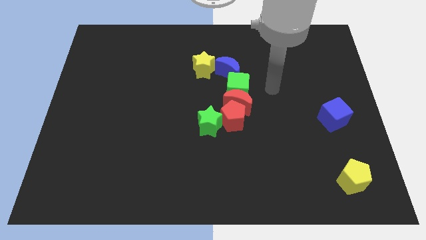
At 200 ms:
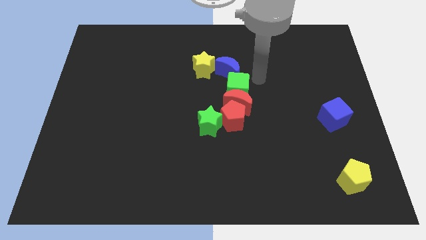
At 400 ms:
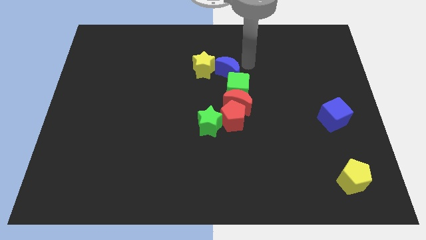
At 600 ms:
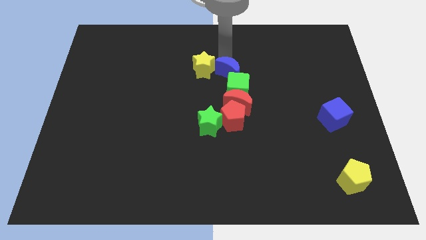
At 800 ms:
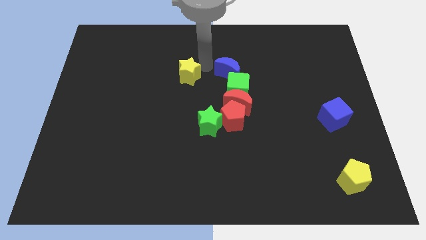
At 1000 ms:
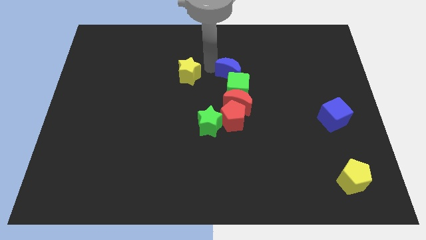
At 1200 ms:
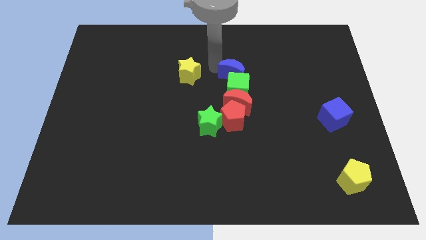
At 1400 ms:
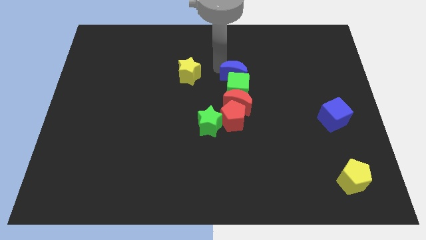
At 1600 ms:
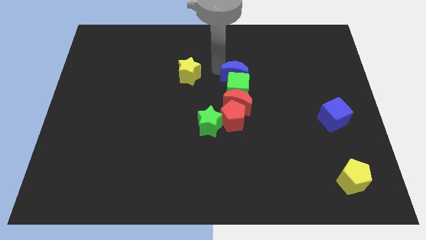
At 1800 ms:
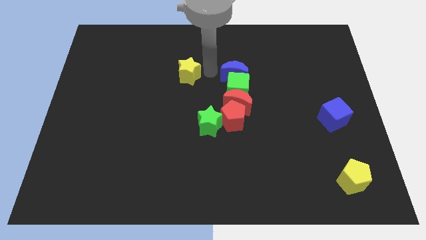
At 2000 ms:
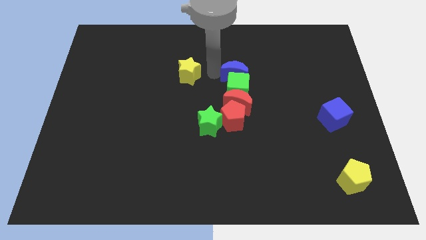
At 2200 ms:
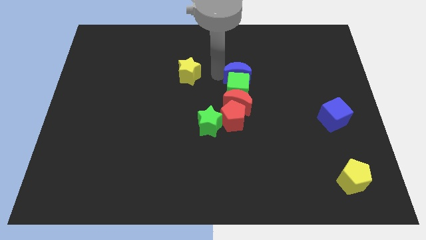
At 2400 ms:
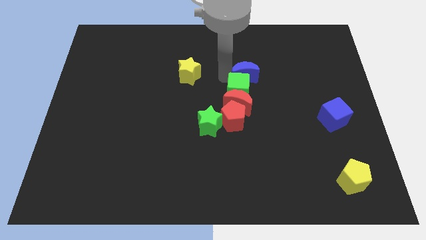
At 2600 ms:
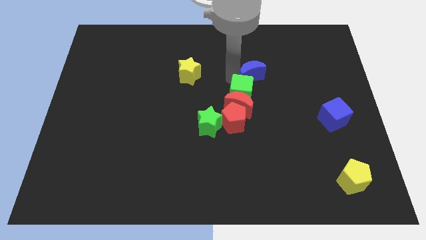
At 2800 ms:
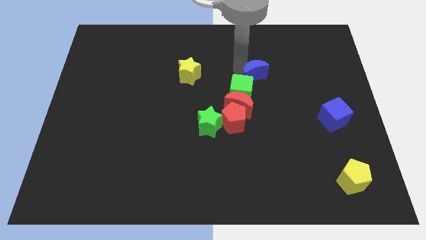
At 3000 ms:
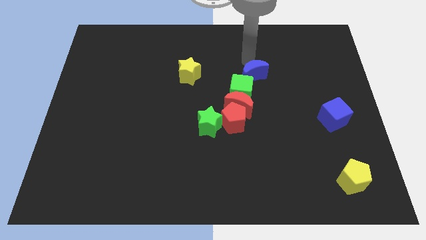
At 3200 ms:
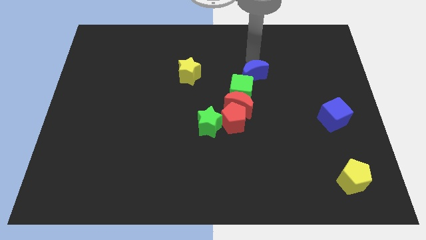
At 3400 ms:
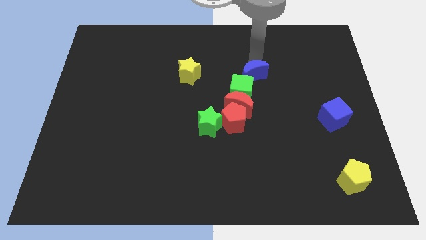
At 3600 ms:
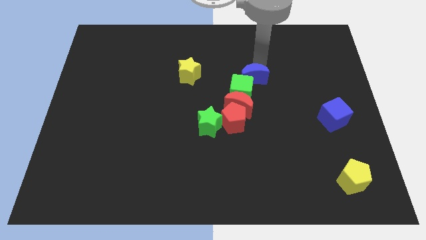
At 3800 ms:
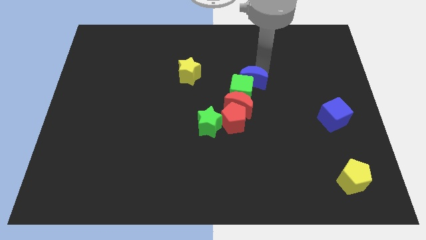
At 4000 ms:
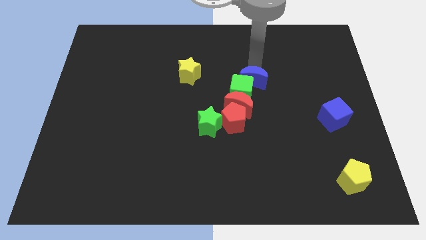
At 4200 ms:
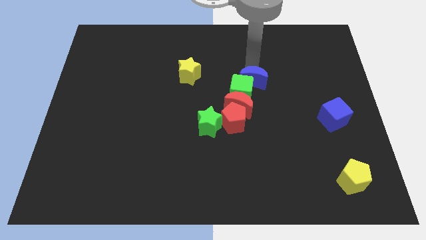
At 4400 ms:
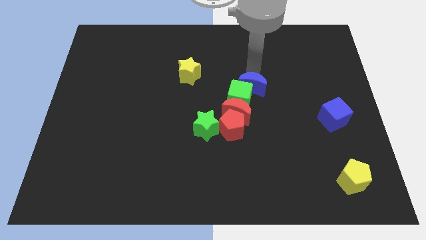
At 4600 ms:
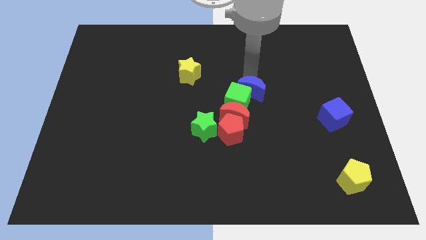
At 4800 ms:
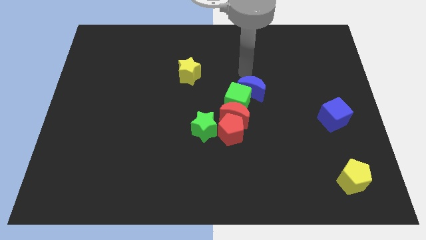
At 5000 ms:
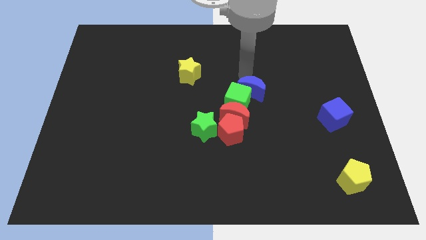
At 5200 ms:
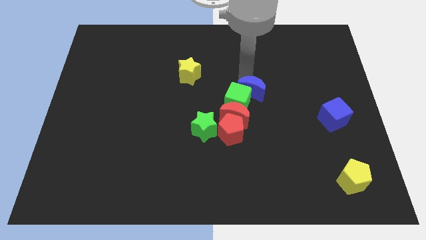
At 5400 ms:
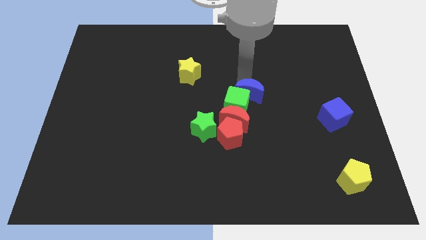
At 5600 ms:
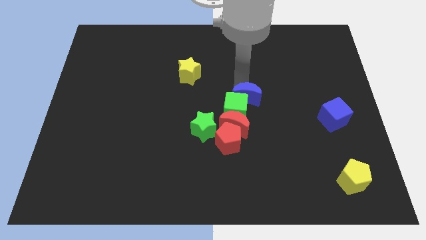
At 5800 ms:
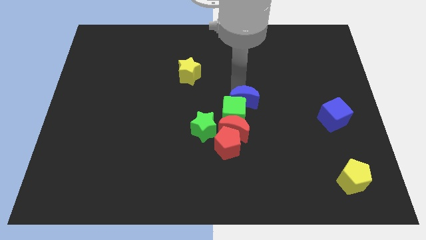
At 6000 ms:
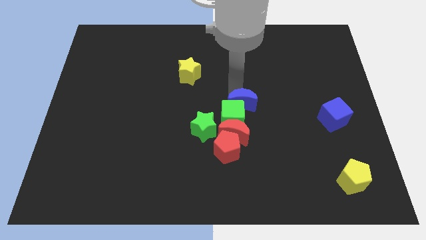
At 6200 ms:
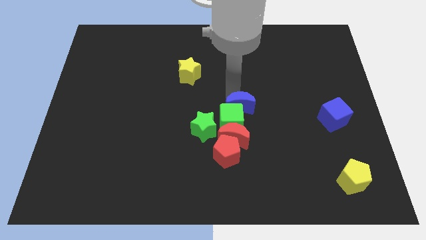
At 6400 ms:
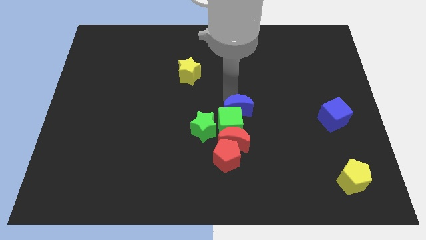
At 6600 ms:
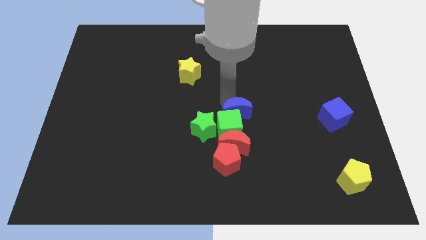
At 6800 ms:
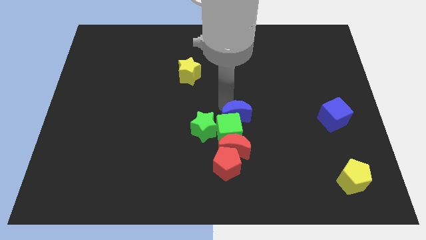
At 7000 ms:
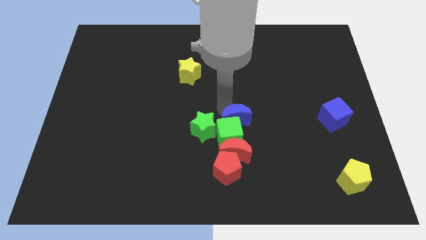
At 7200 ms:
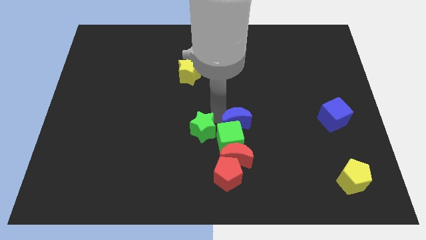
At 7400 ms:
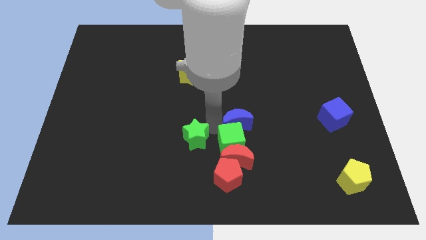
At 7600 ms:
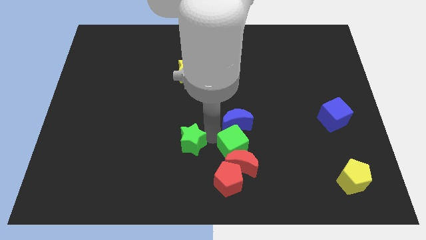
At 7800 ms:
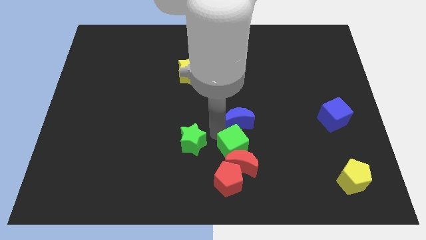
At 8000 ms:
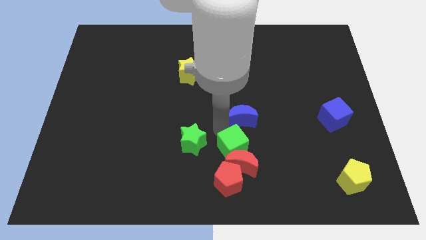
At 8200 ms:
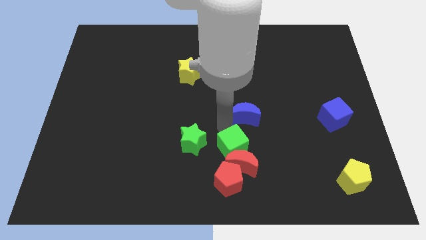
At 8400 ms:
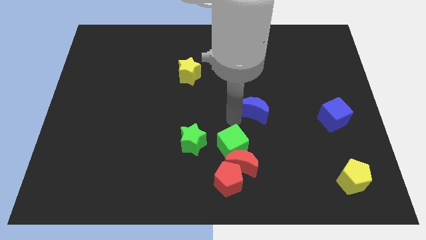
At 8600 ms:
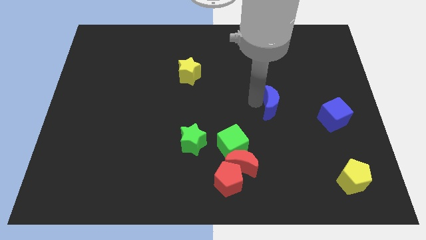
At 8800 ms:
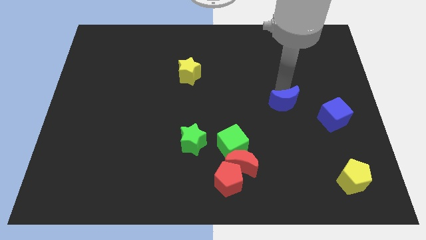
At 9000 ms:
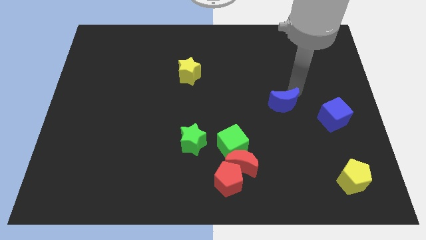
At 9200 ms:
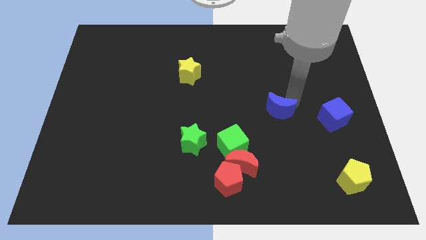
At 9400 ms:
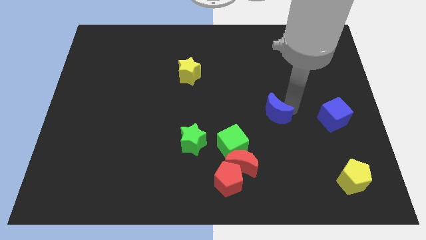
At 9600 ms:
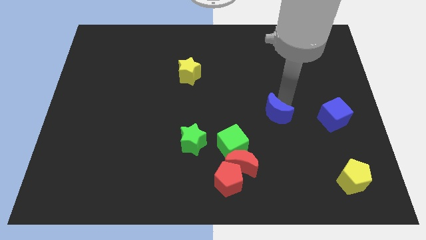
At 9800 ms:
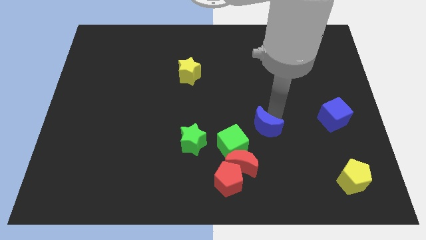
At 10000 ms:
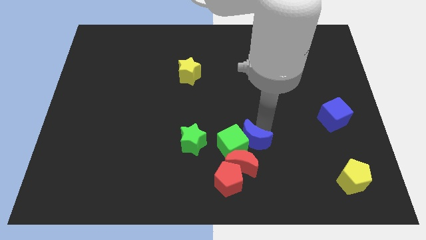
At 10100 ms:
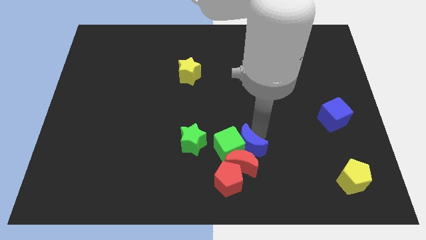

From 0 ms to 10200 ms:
slide the blue moon towards the red moon

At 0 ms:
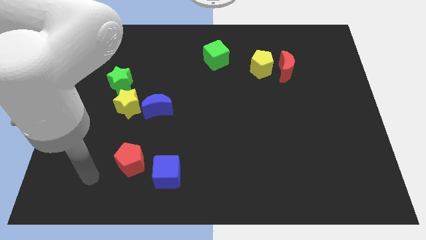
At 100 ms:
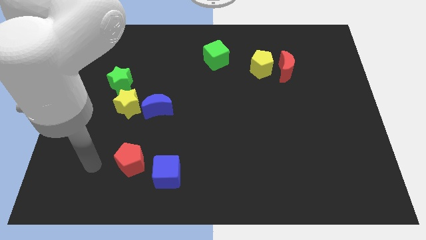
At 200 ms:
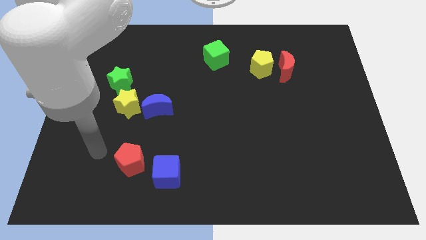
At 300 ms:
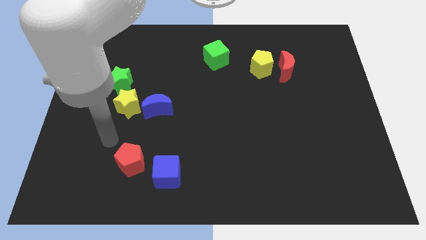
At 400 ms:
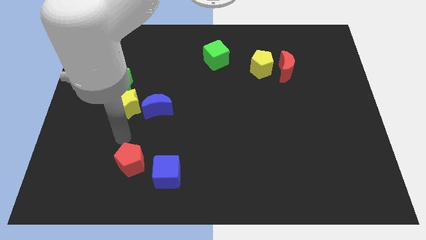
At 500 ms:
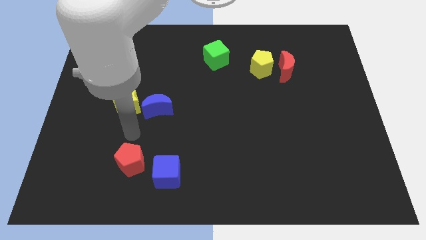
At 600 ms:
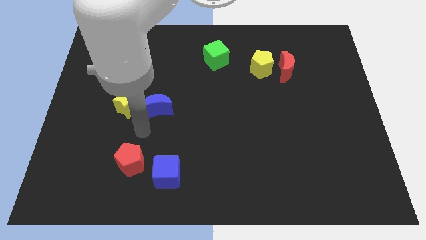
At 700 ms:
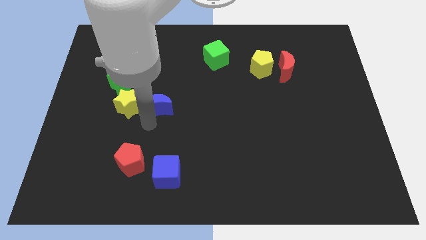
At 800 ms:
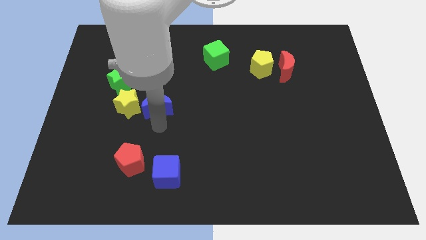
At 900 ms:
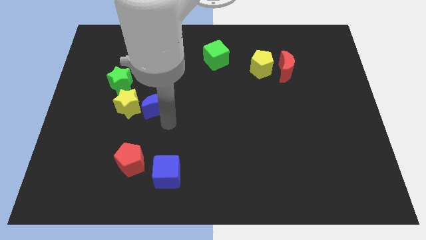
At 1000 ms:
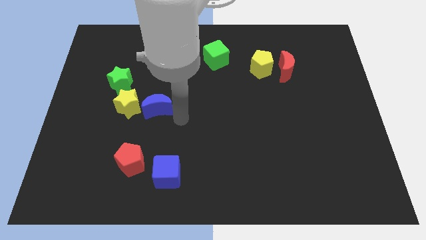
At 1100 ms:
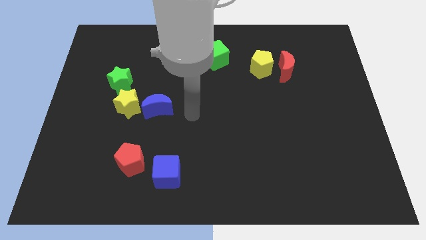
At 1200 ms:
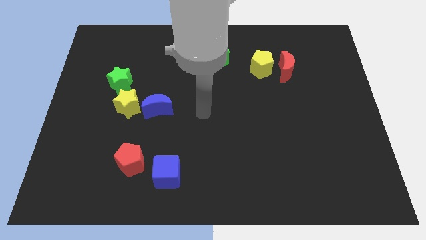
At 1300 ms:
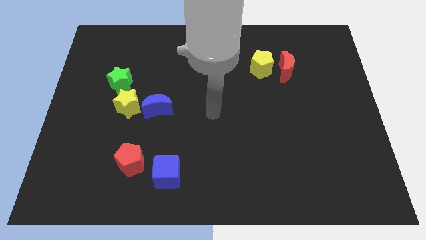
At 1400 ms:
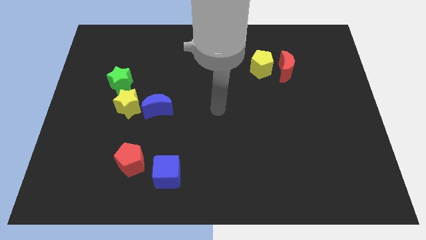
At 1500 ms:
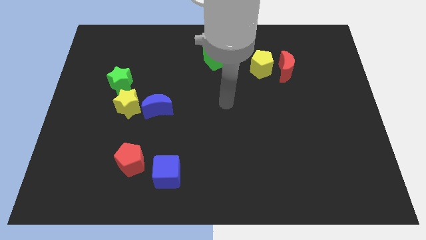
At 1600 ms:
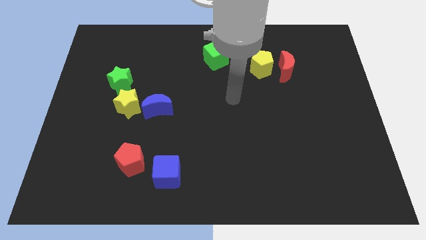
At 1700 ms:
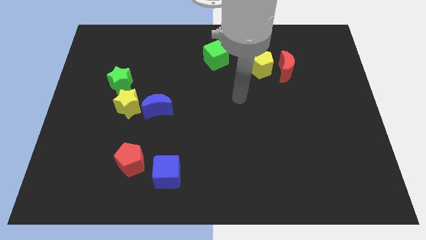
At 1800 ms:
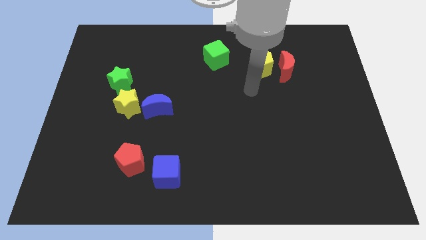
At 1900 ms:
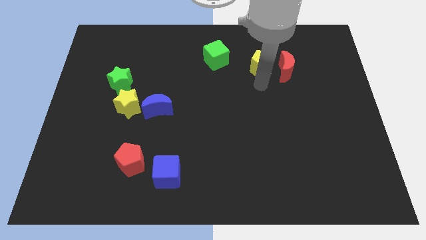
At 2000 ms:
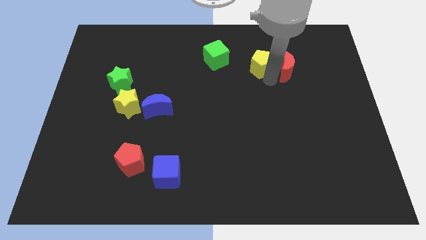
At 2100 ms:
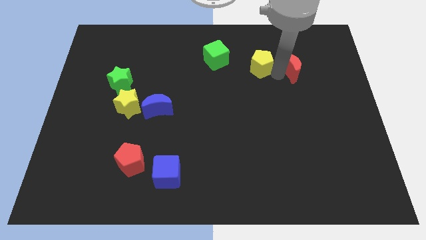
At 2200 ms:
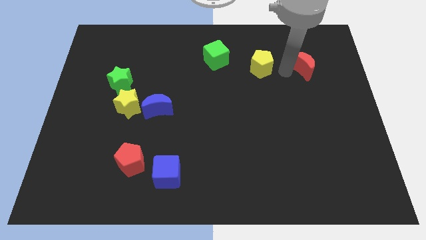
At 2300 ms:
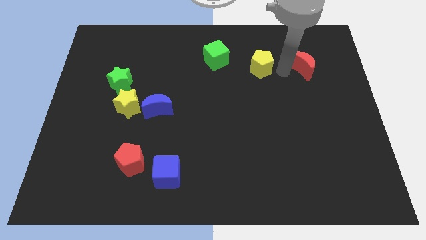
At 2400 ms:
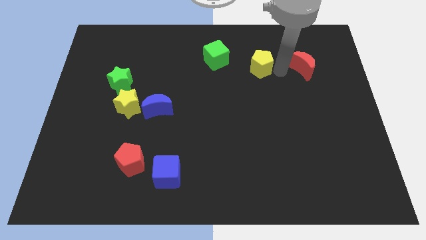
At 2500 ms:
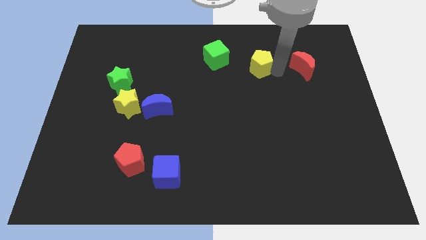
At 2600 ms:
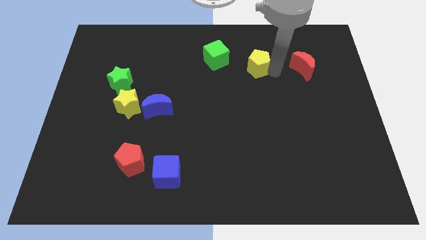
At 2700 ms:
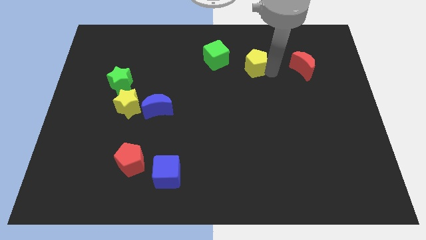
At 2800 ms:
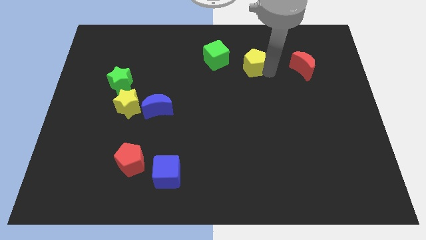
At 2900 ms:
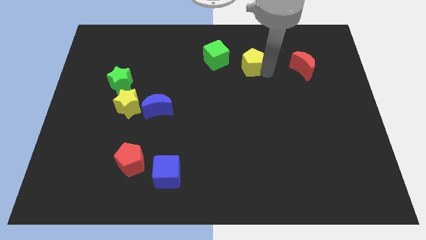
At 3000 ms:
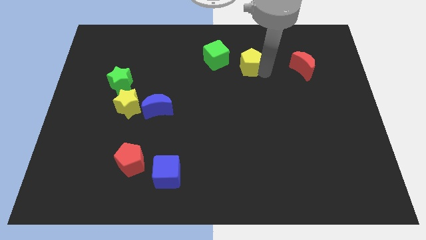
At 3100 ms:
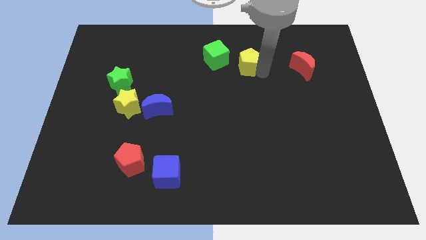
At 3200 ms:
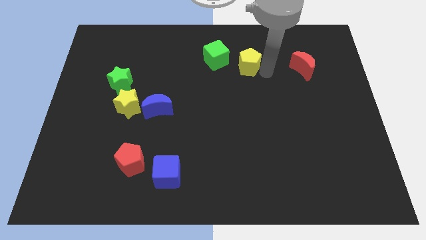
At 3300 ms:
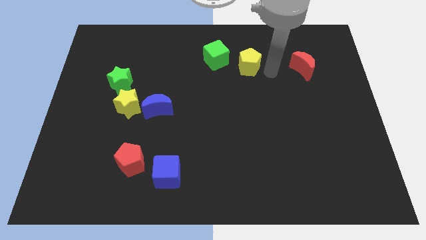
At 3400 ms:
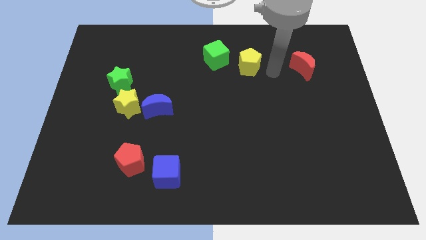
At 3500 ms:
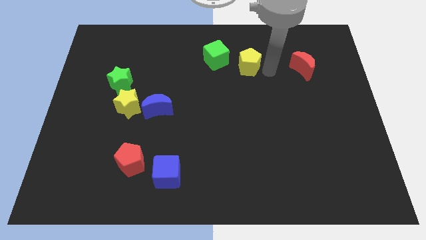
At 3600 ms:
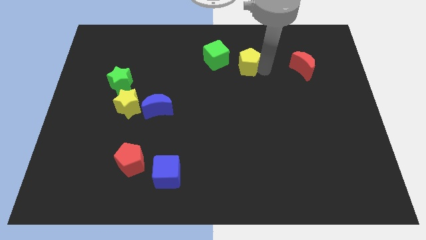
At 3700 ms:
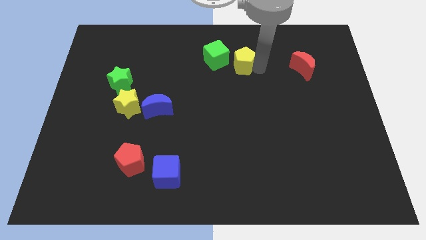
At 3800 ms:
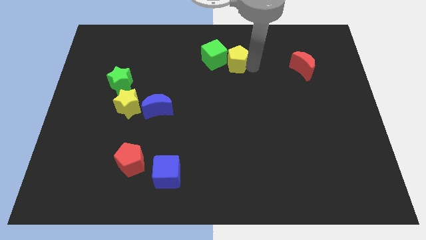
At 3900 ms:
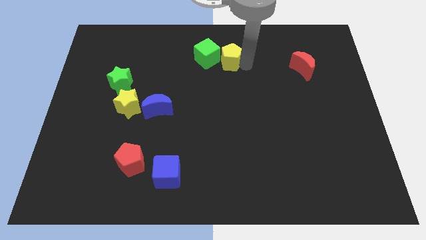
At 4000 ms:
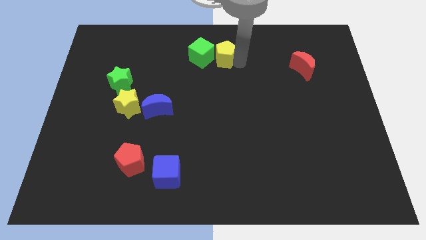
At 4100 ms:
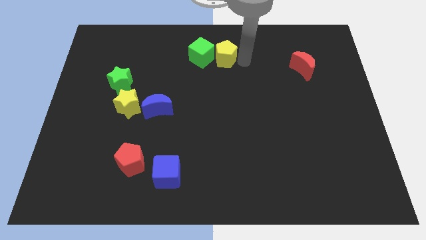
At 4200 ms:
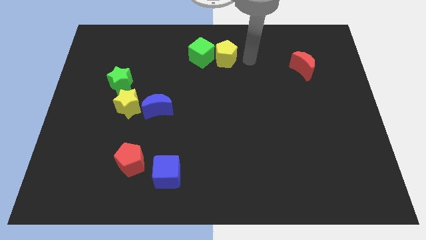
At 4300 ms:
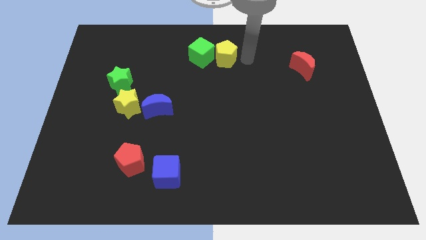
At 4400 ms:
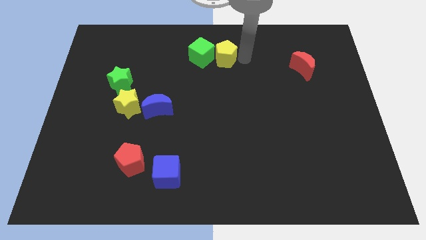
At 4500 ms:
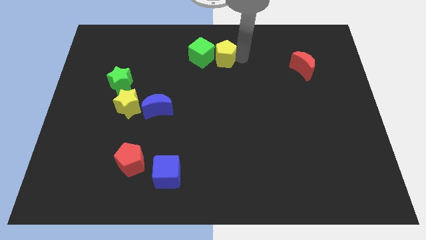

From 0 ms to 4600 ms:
push the yellow pentagon close to the green cube
